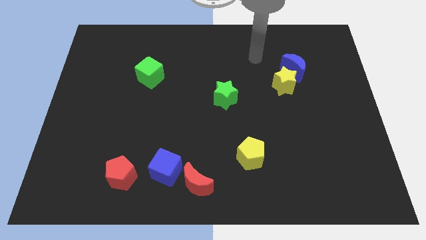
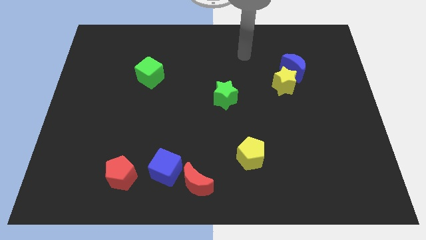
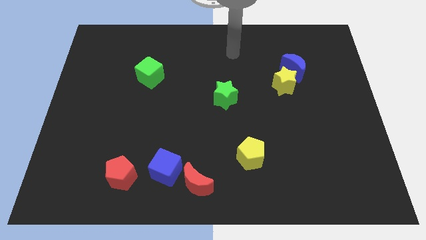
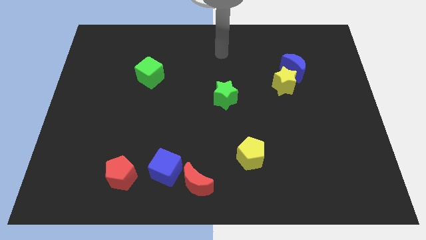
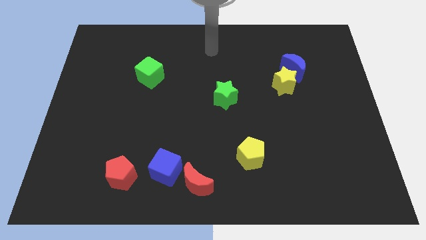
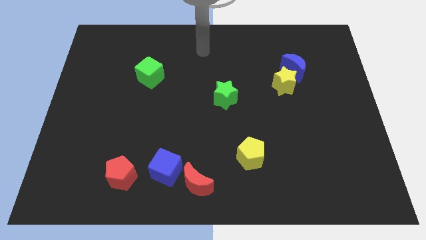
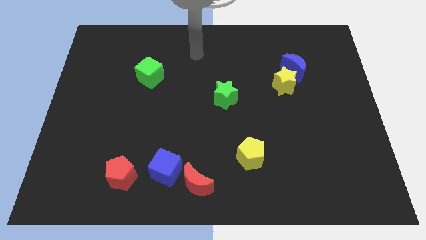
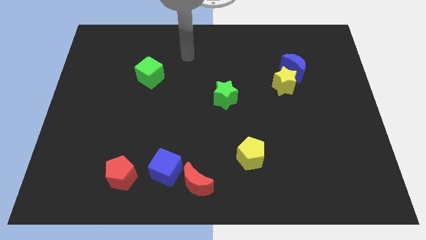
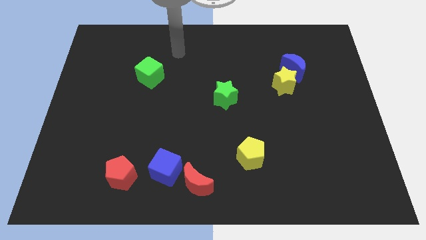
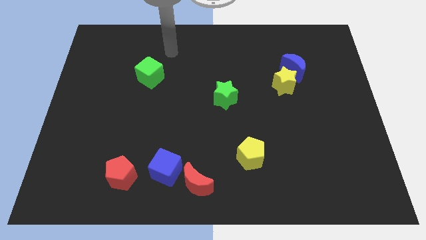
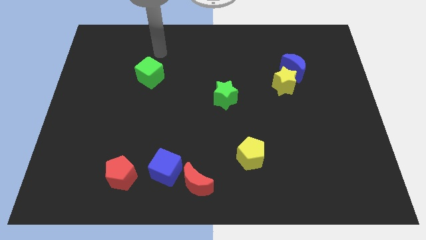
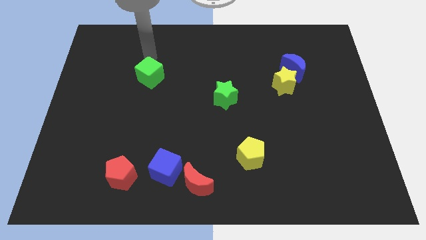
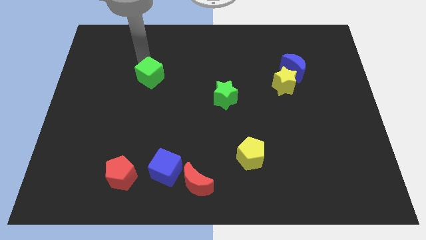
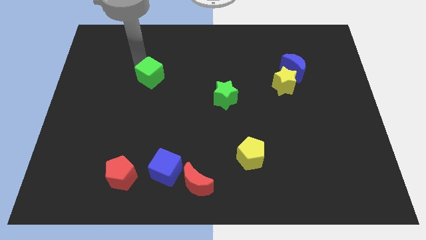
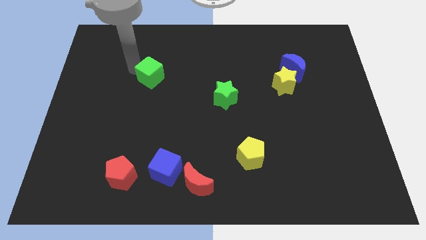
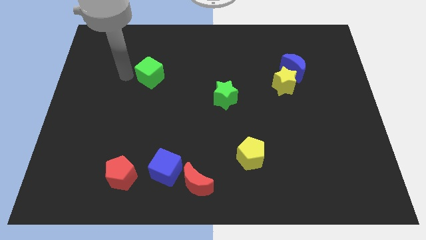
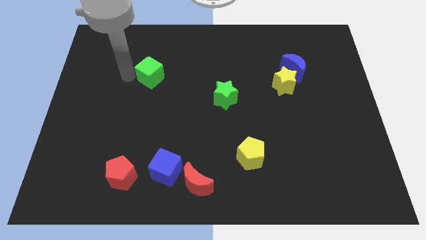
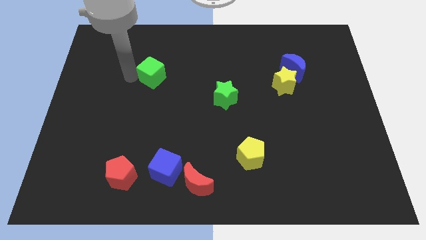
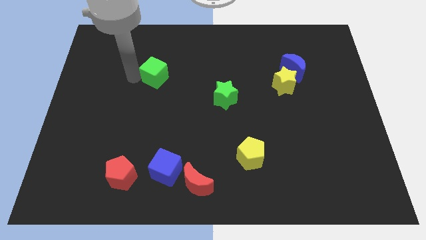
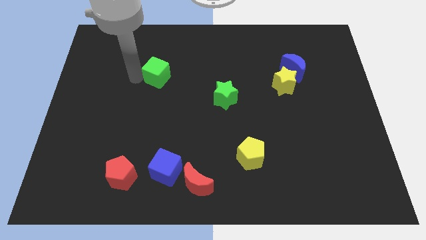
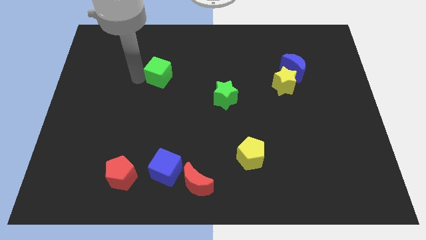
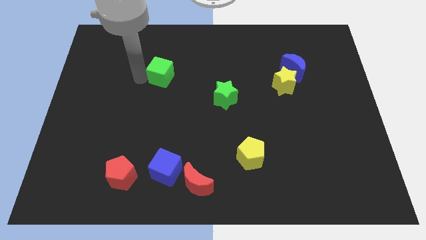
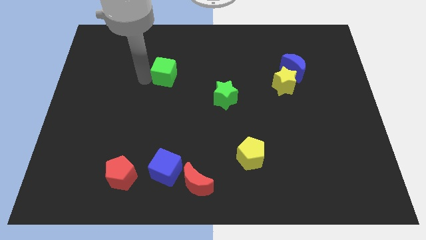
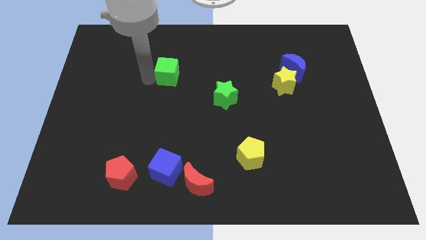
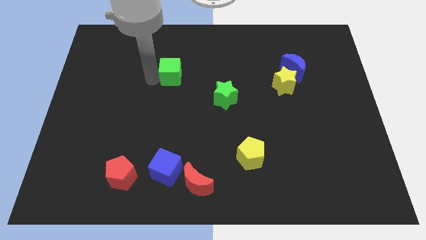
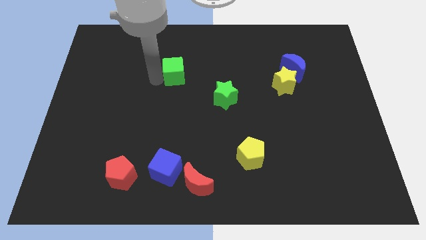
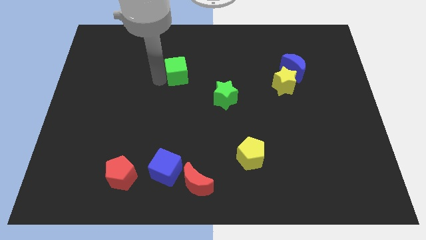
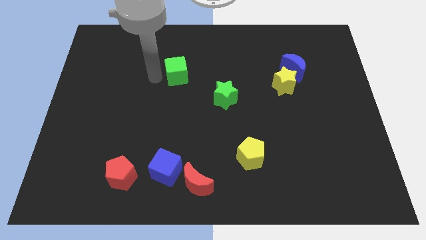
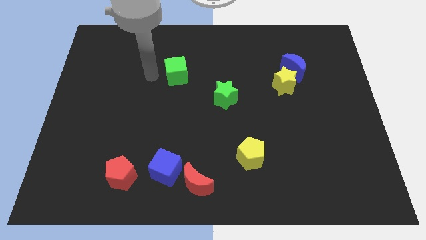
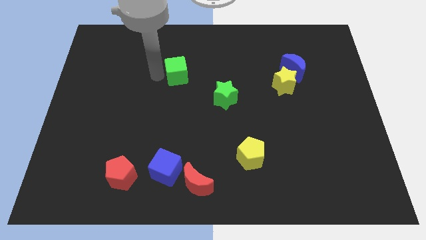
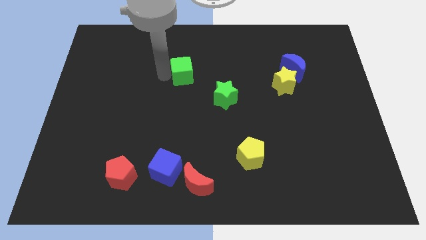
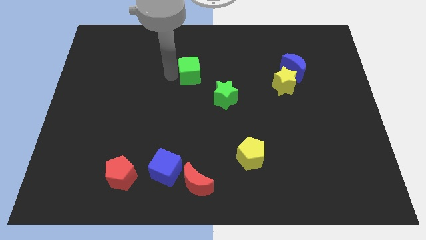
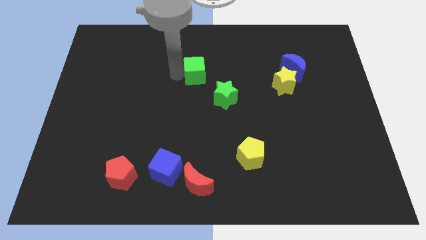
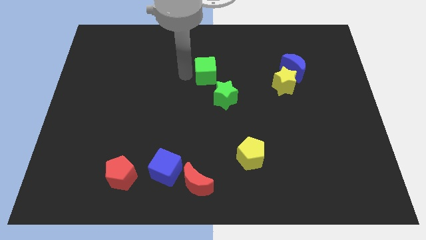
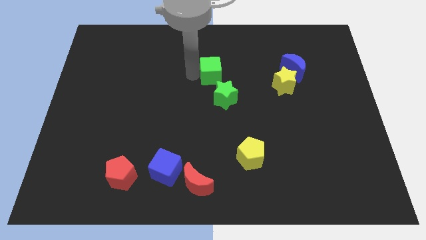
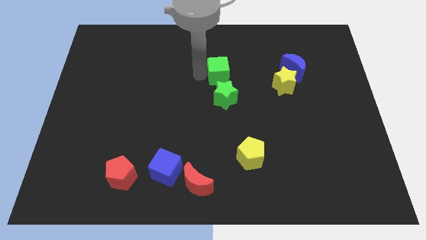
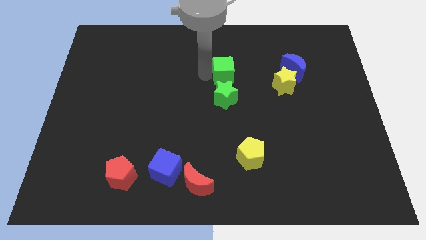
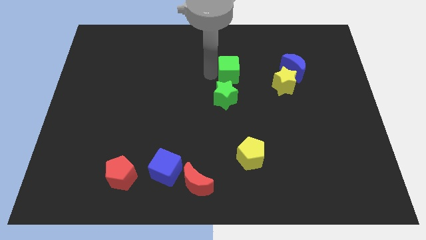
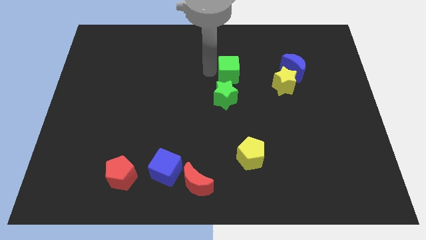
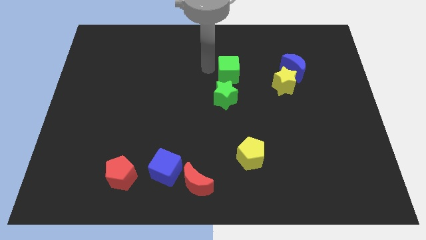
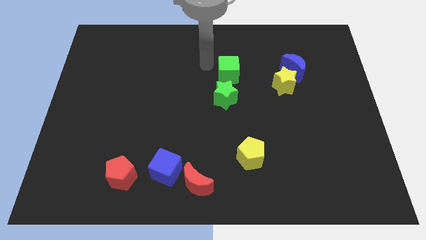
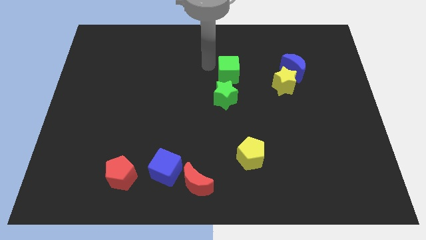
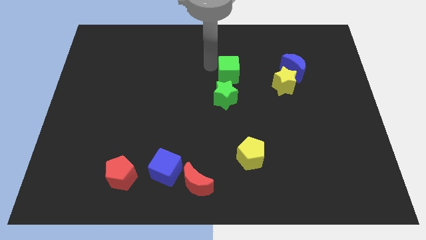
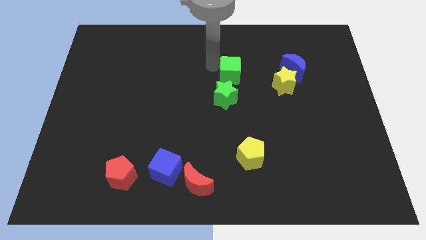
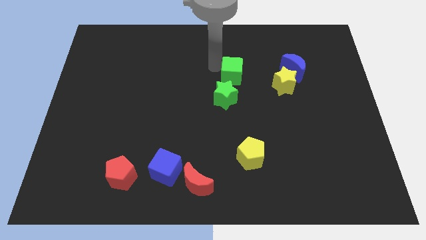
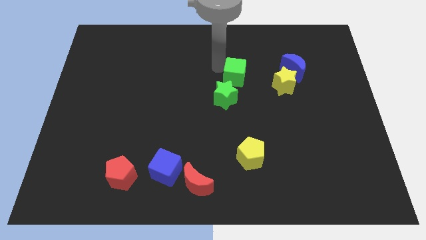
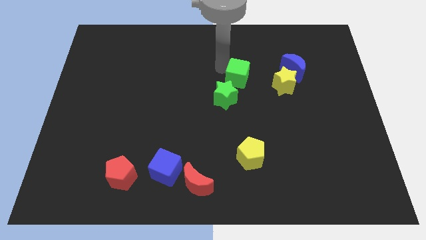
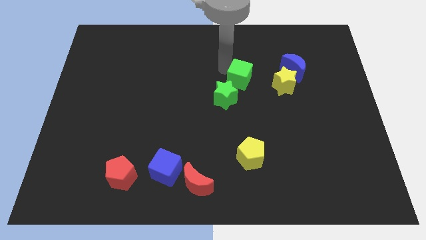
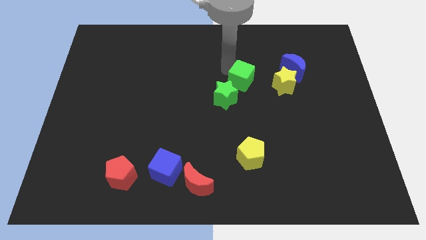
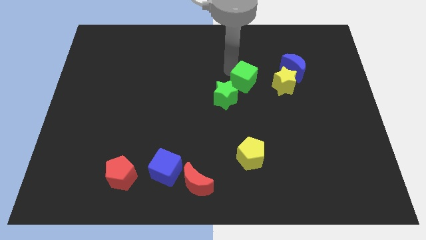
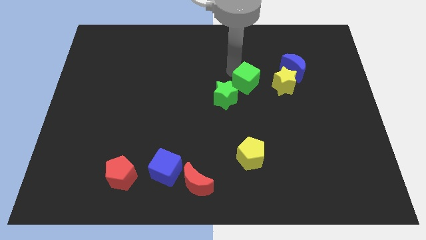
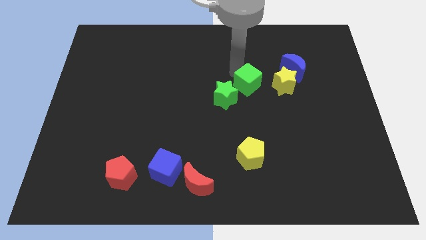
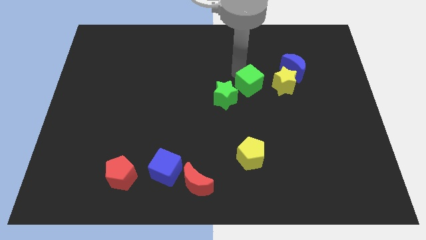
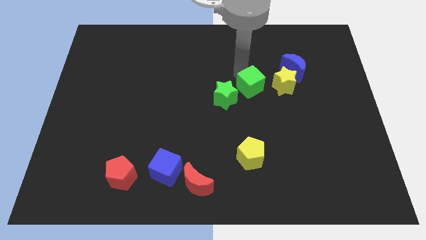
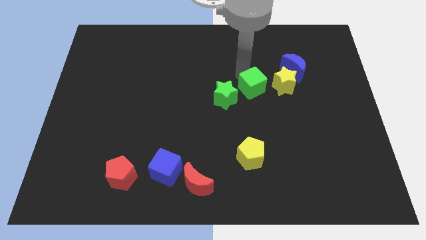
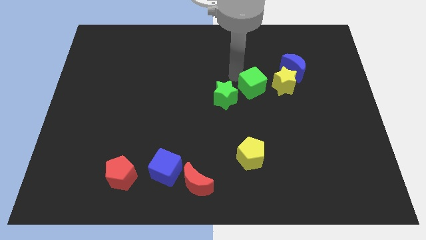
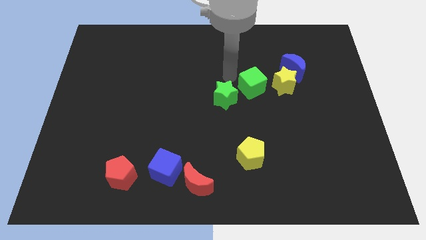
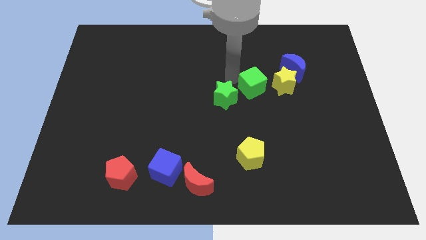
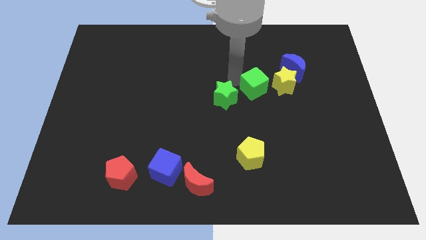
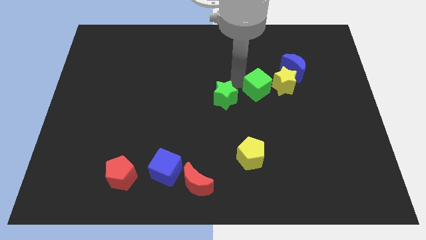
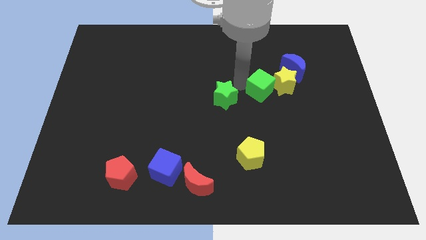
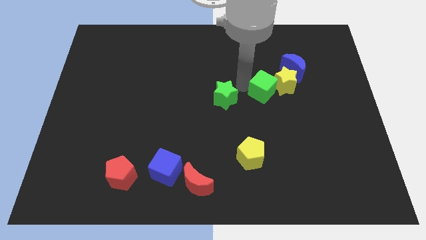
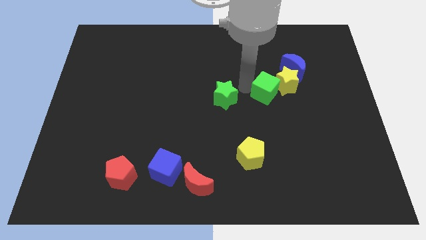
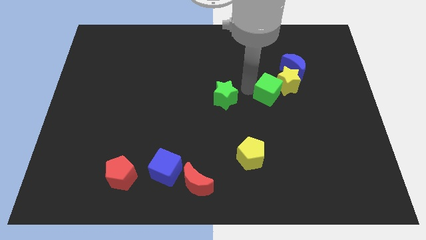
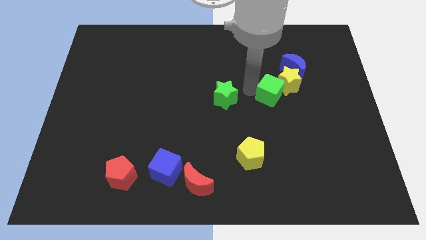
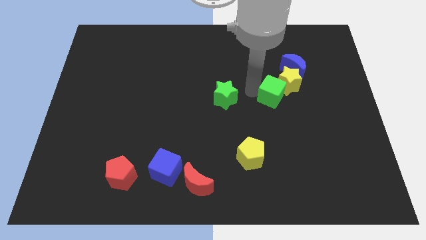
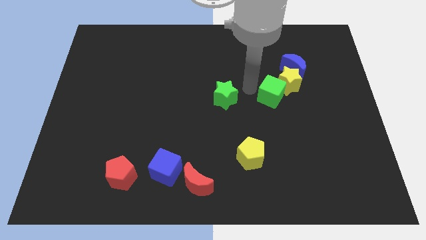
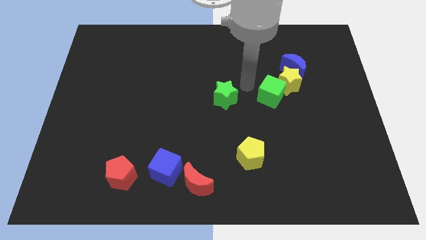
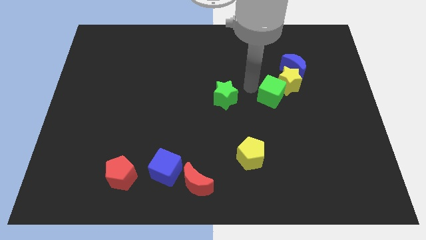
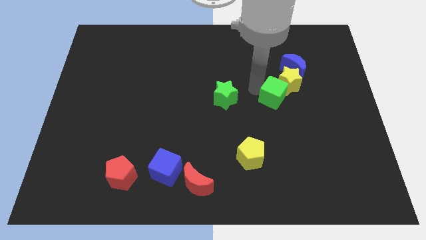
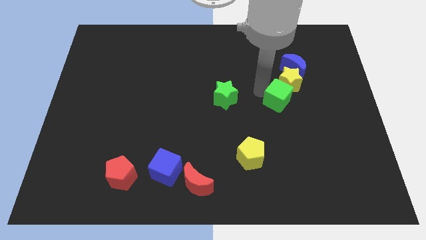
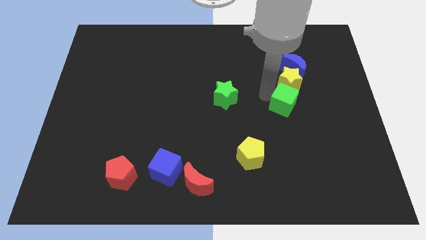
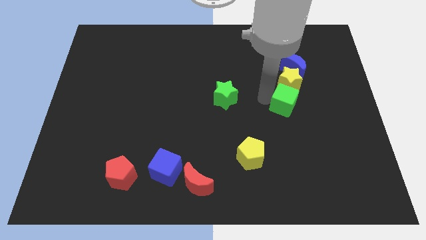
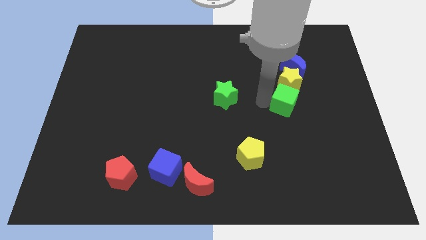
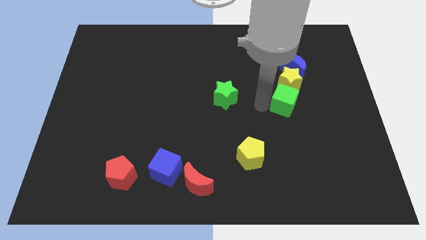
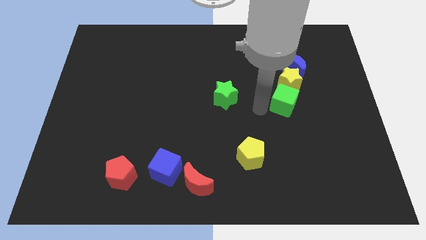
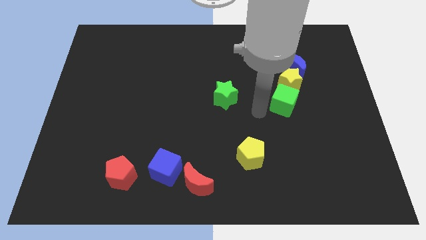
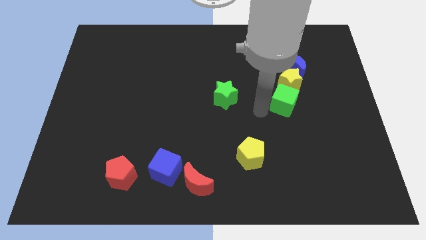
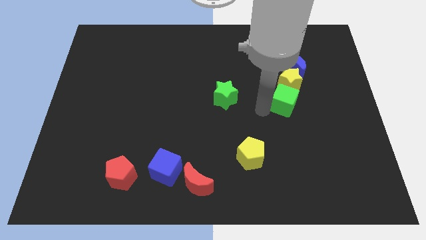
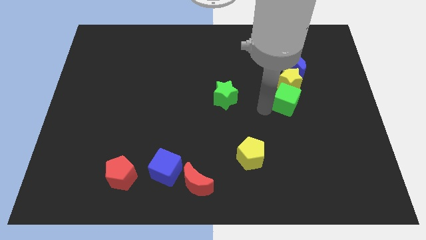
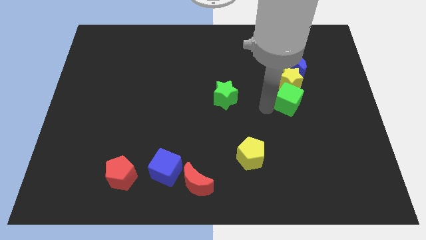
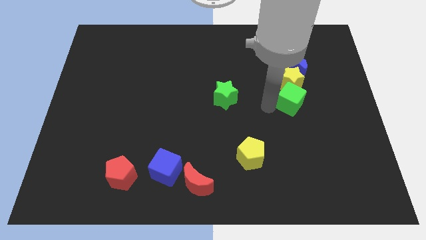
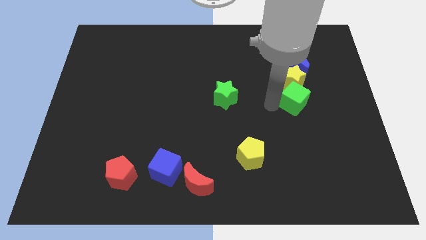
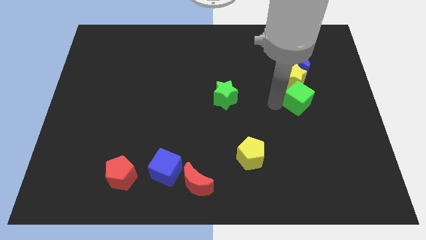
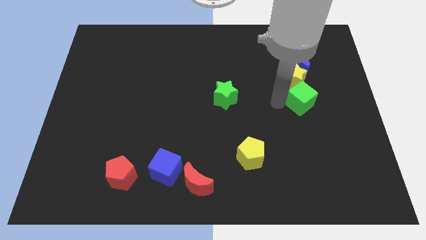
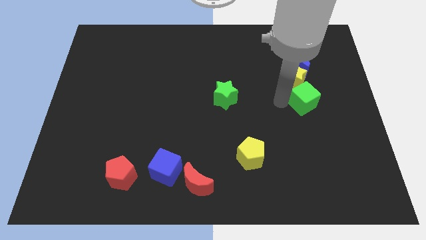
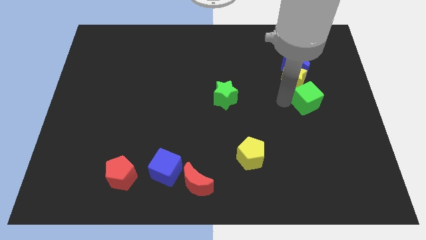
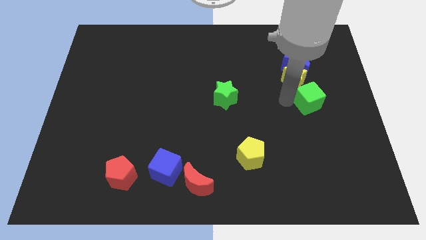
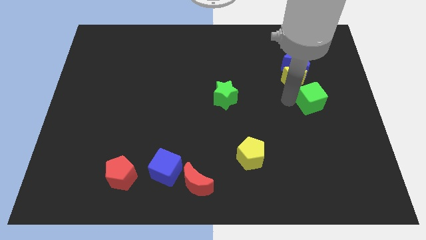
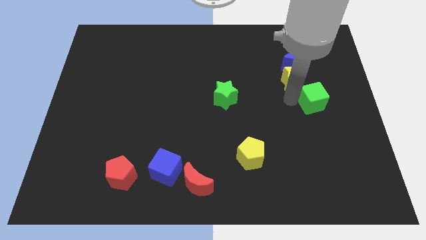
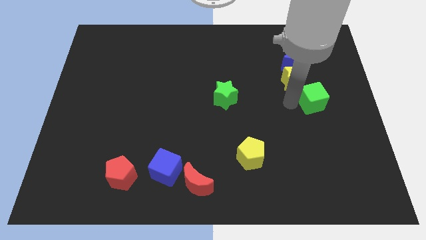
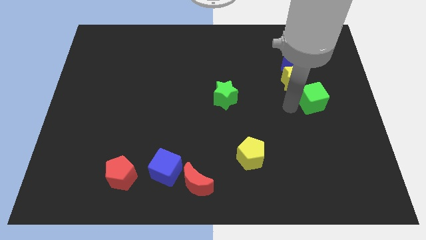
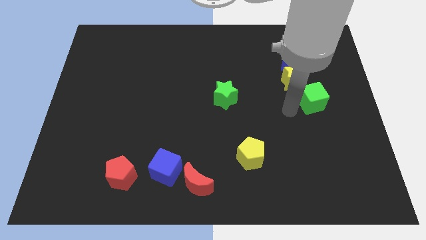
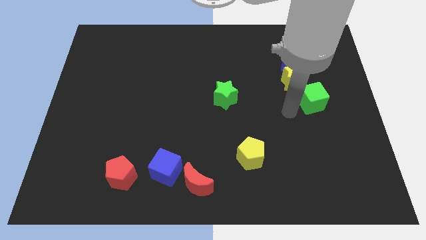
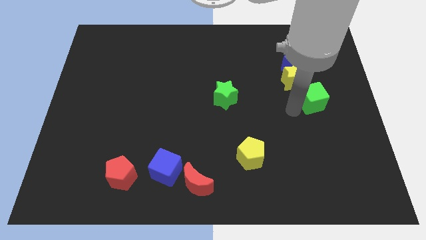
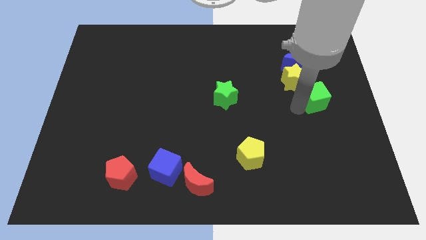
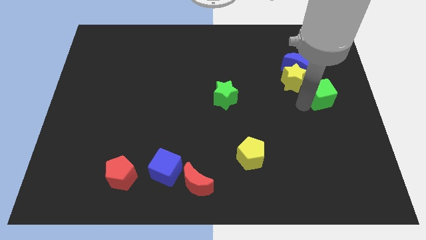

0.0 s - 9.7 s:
slide the green cube to the right side
